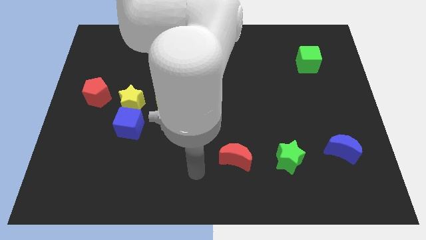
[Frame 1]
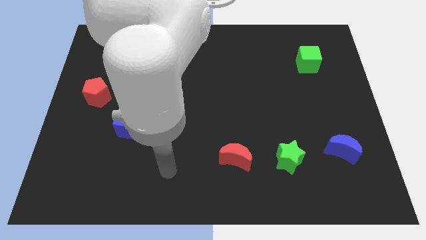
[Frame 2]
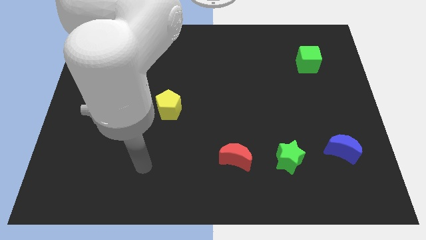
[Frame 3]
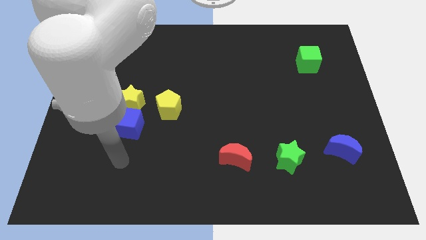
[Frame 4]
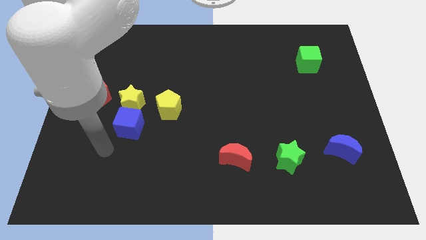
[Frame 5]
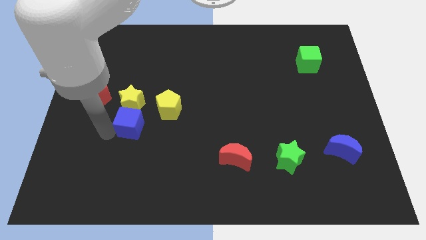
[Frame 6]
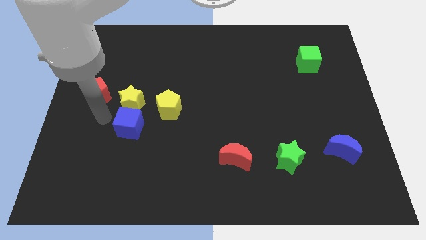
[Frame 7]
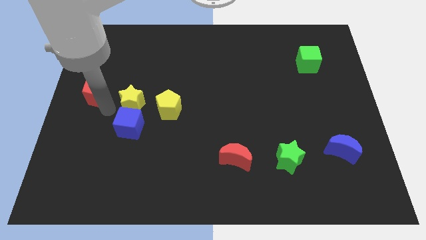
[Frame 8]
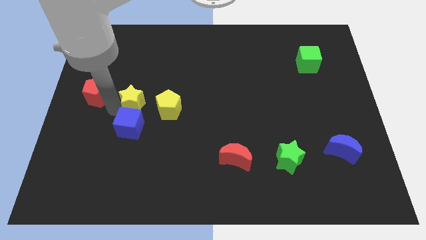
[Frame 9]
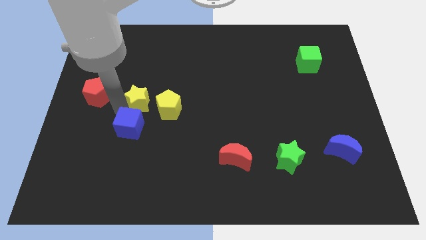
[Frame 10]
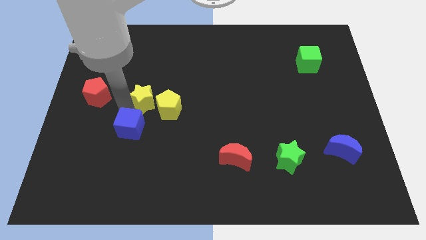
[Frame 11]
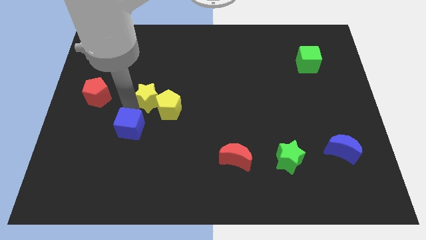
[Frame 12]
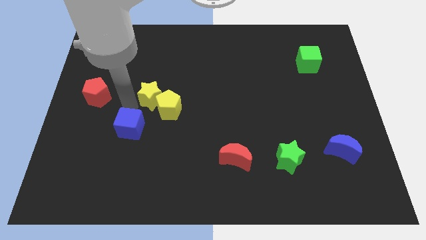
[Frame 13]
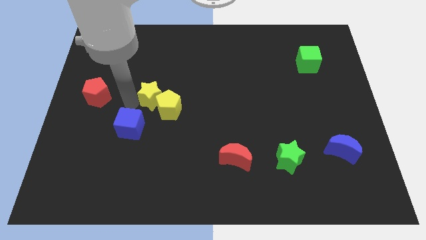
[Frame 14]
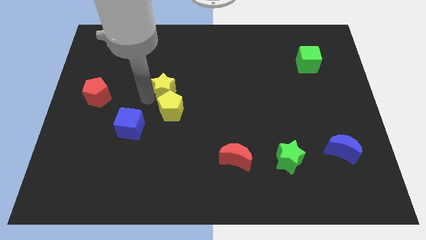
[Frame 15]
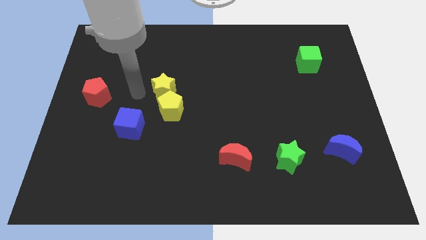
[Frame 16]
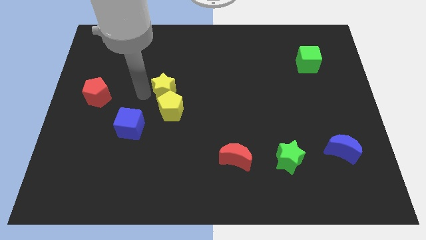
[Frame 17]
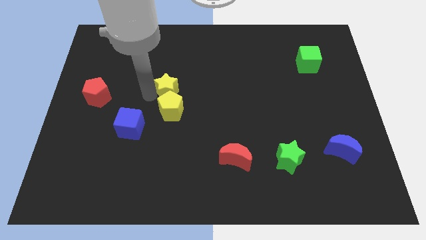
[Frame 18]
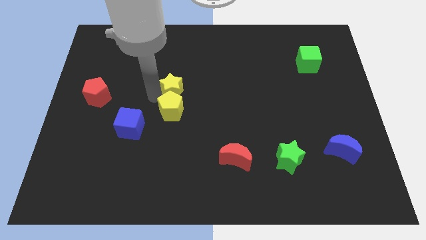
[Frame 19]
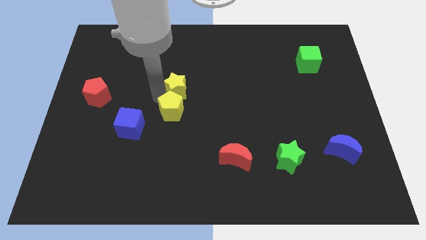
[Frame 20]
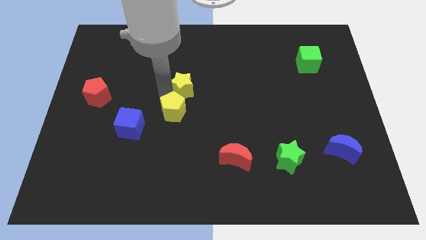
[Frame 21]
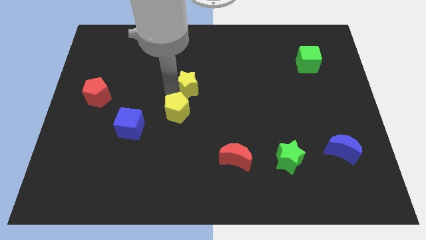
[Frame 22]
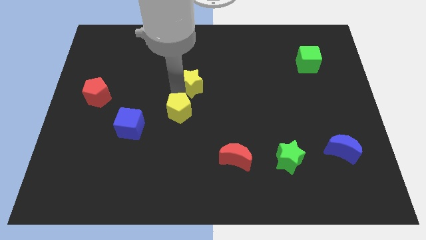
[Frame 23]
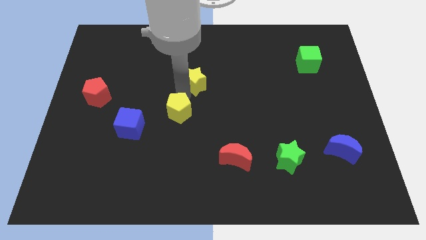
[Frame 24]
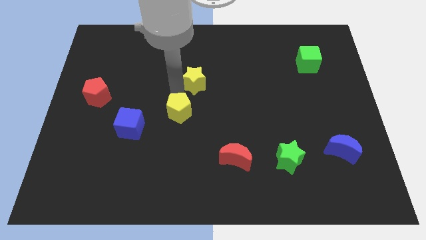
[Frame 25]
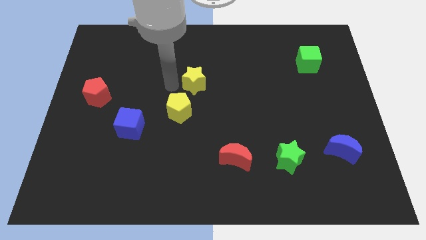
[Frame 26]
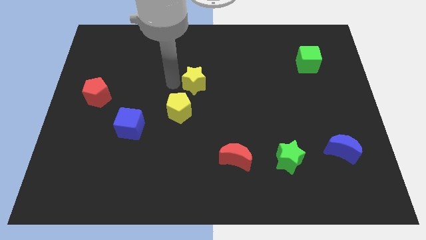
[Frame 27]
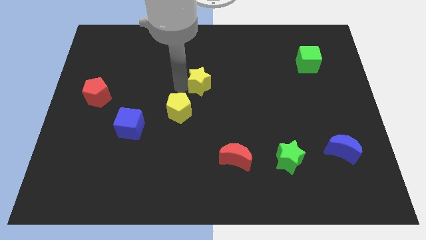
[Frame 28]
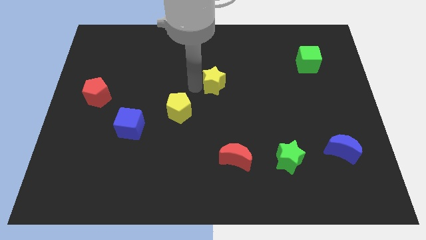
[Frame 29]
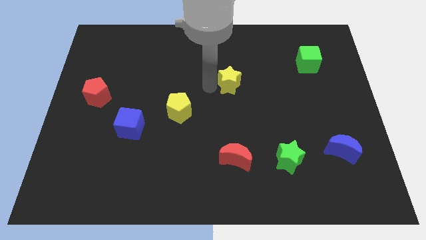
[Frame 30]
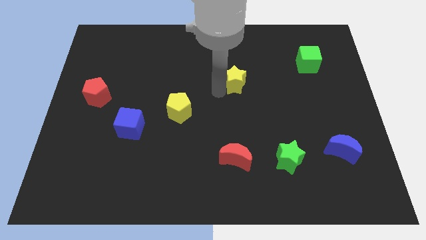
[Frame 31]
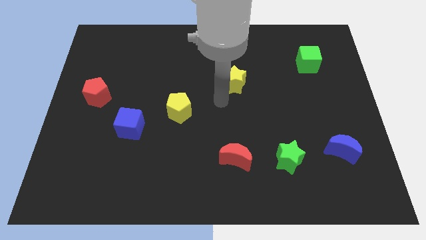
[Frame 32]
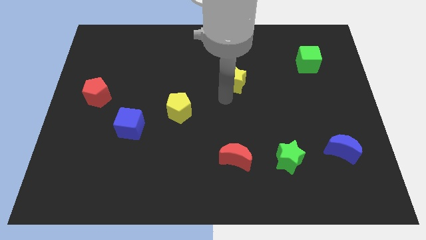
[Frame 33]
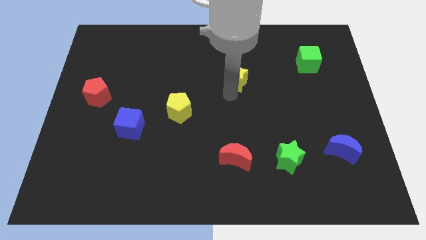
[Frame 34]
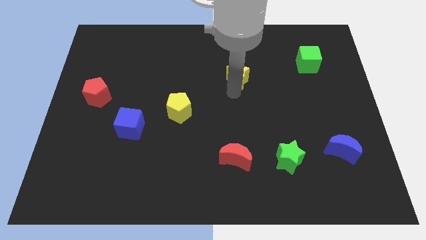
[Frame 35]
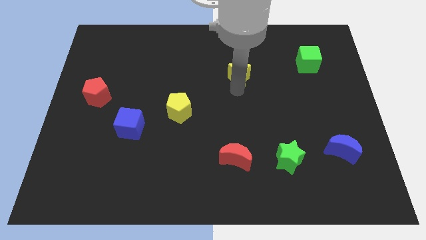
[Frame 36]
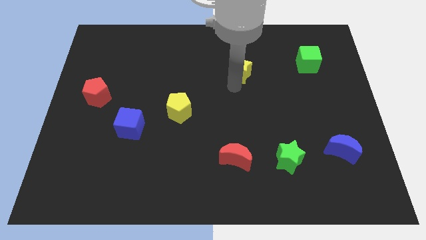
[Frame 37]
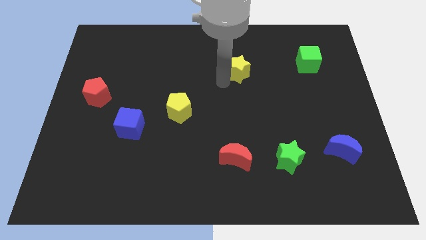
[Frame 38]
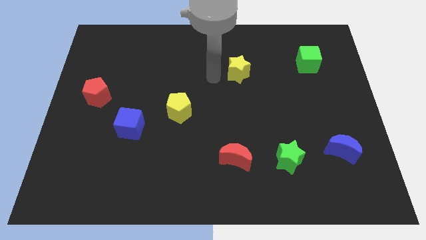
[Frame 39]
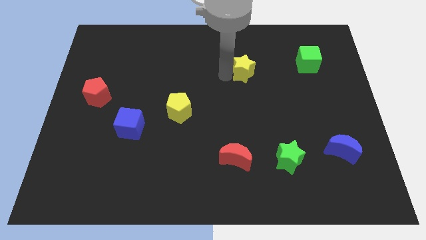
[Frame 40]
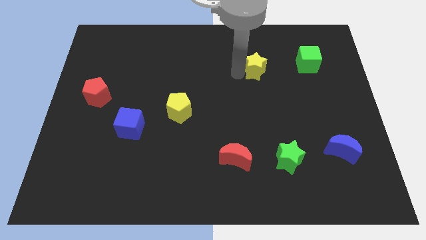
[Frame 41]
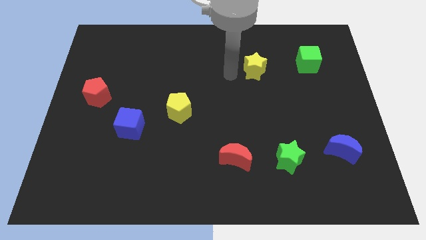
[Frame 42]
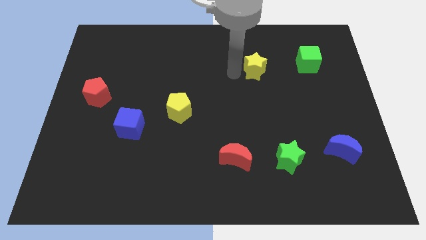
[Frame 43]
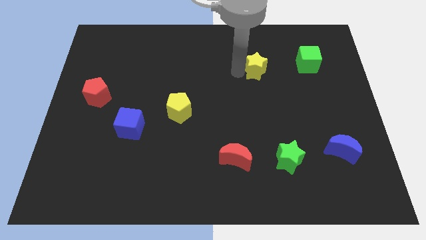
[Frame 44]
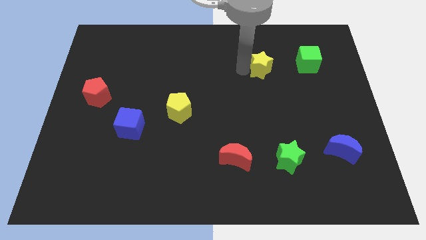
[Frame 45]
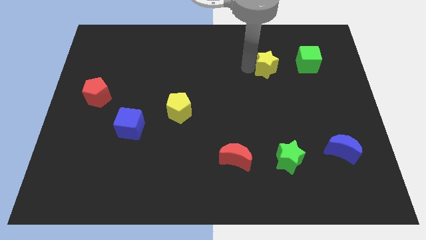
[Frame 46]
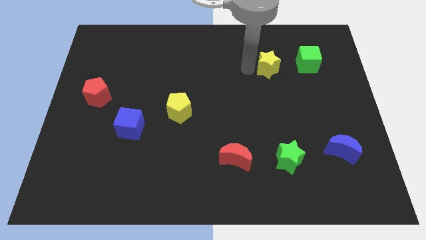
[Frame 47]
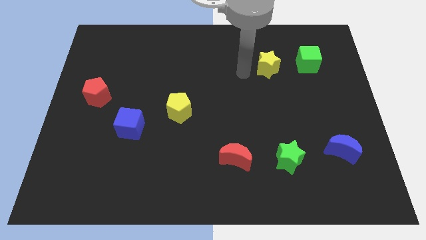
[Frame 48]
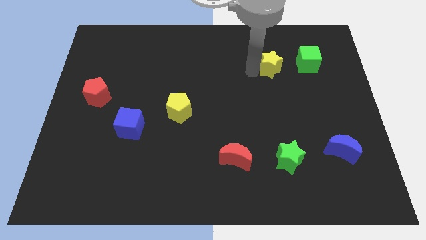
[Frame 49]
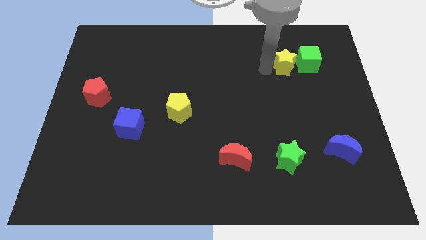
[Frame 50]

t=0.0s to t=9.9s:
move the yellow star to the green cube

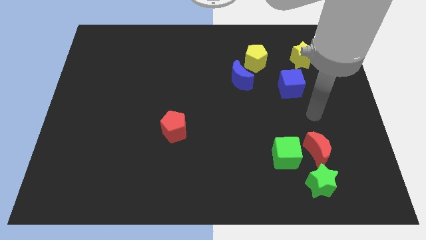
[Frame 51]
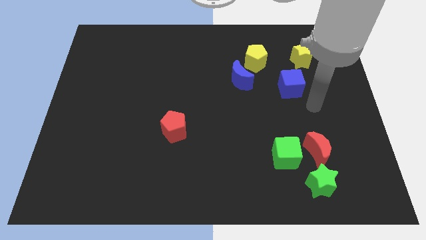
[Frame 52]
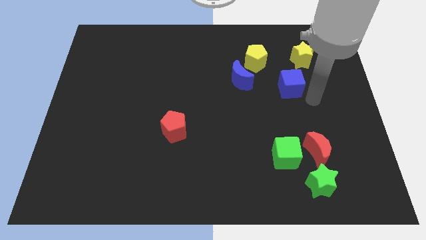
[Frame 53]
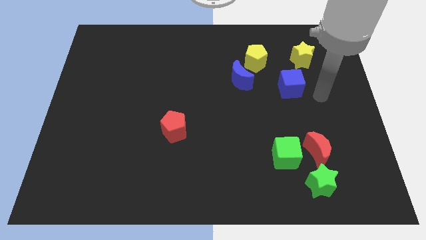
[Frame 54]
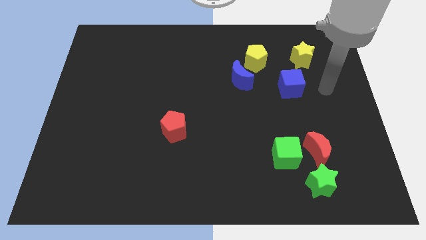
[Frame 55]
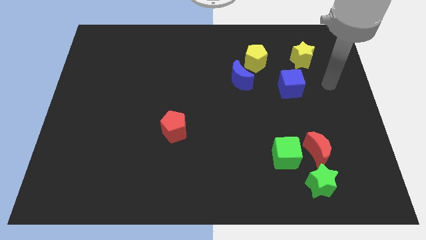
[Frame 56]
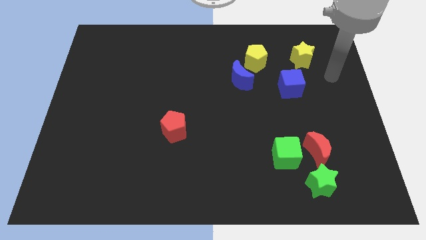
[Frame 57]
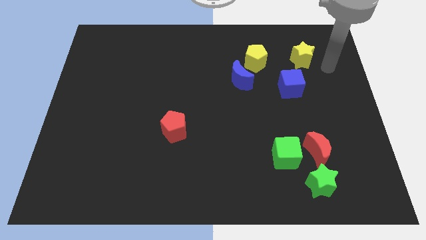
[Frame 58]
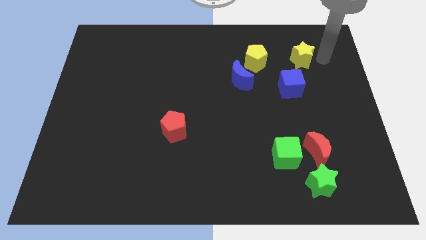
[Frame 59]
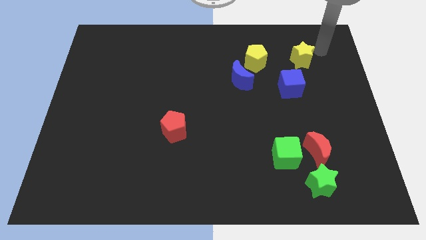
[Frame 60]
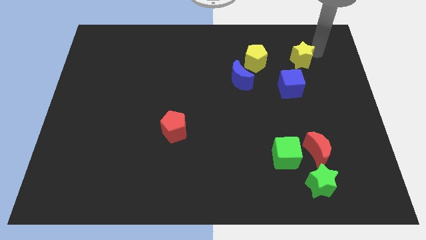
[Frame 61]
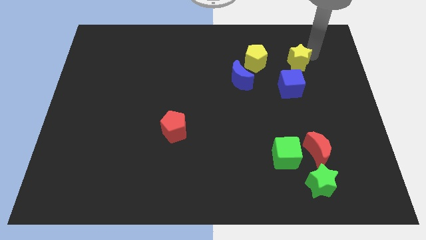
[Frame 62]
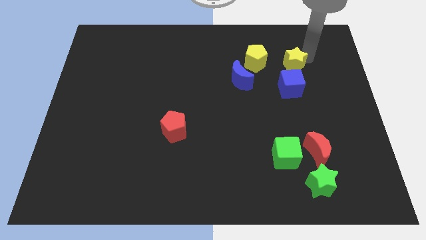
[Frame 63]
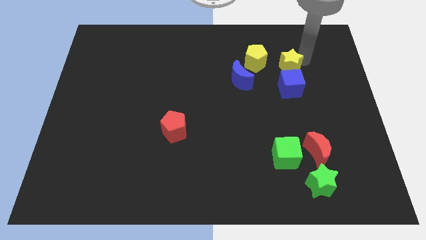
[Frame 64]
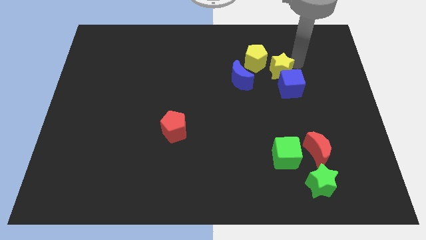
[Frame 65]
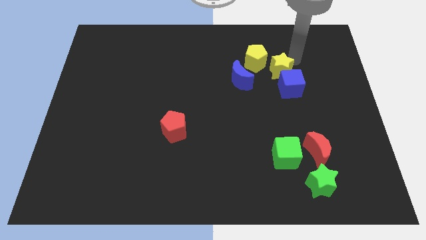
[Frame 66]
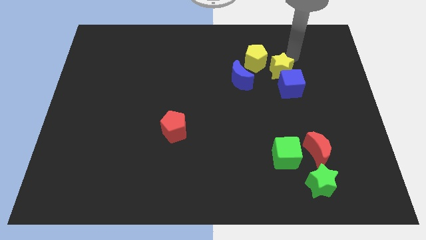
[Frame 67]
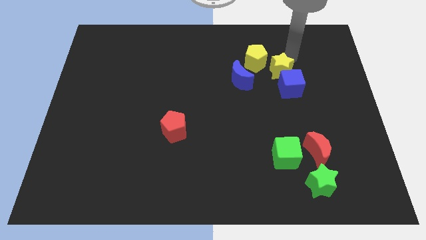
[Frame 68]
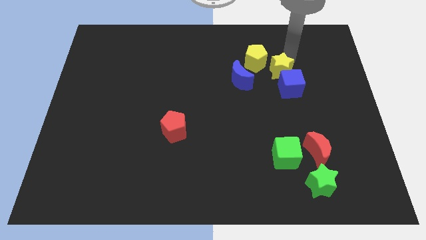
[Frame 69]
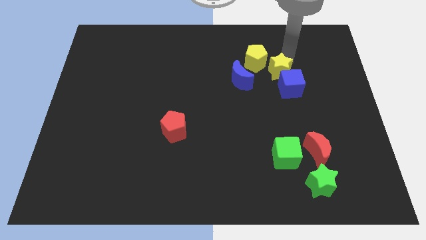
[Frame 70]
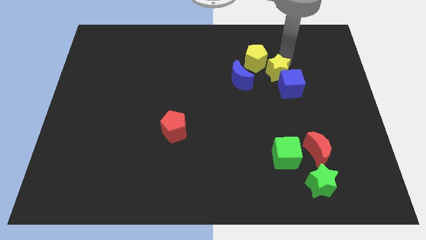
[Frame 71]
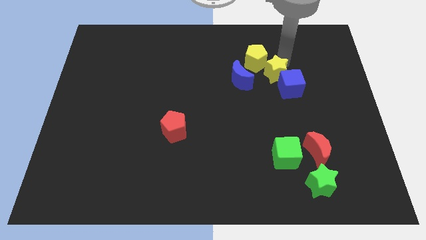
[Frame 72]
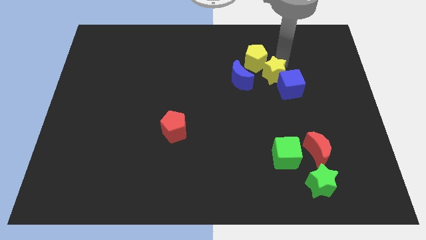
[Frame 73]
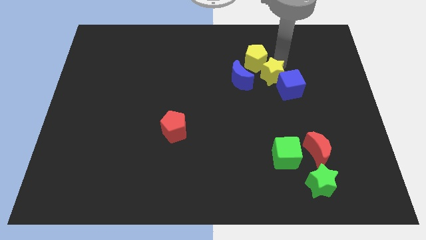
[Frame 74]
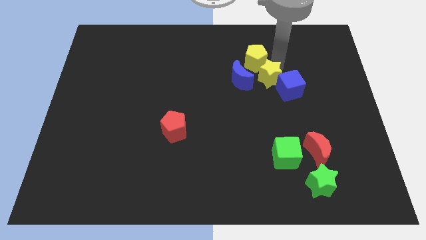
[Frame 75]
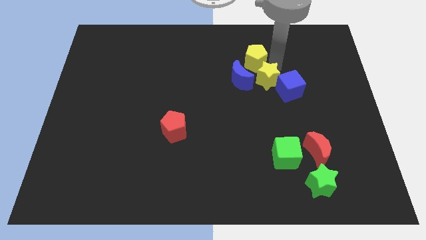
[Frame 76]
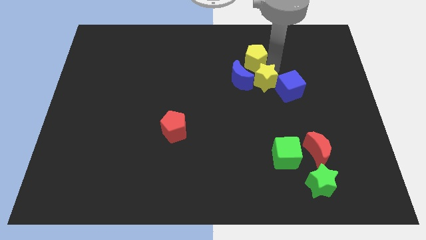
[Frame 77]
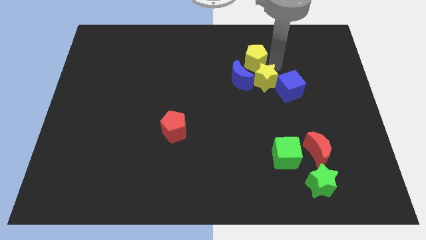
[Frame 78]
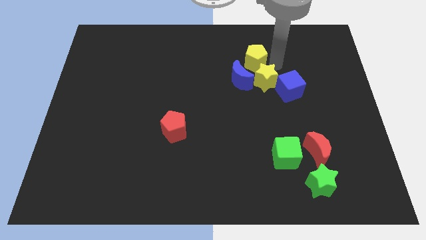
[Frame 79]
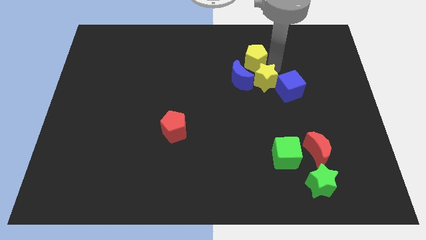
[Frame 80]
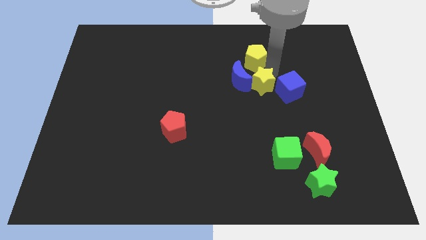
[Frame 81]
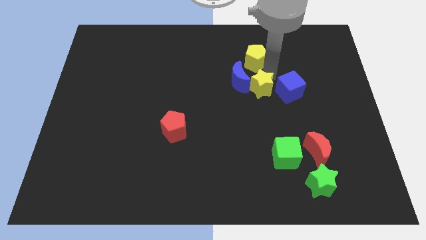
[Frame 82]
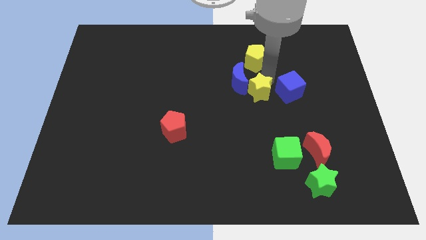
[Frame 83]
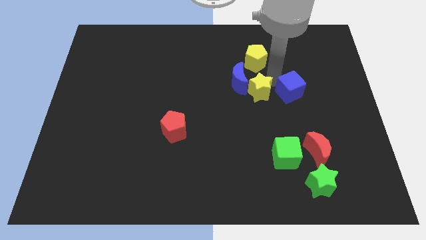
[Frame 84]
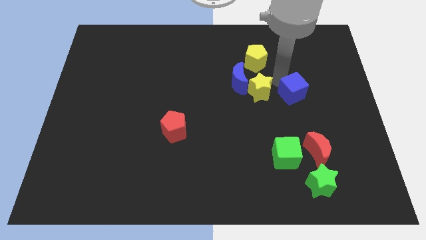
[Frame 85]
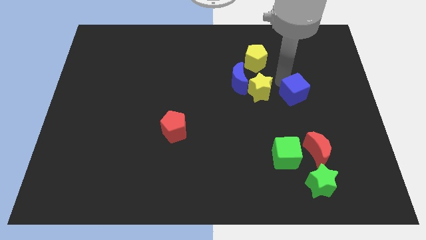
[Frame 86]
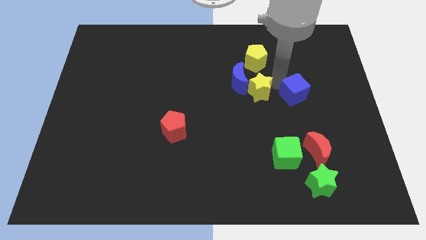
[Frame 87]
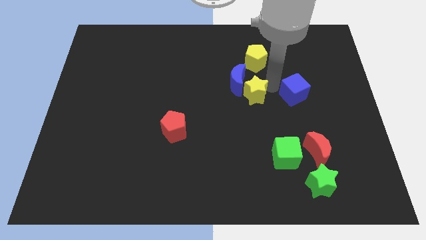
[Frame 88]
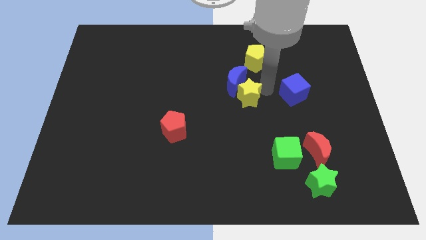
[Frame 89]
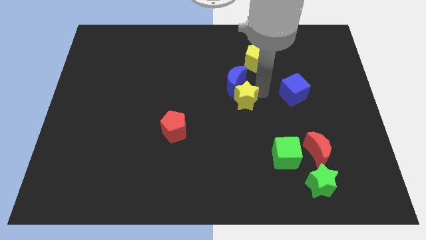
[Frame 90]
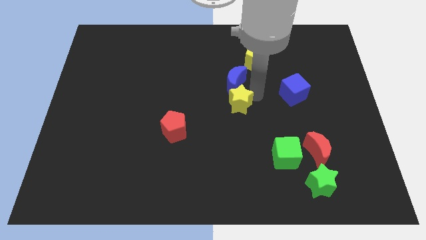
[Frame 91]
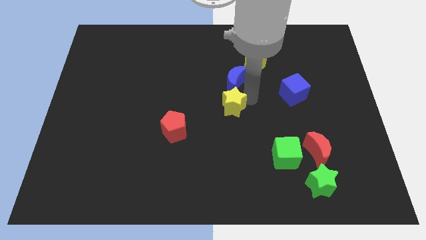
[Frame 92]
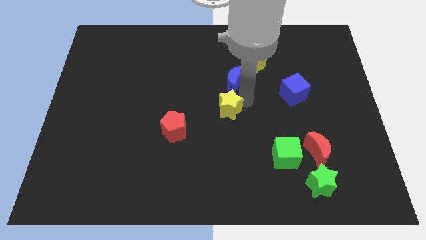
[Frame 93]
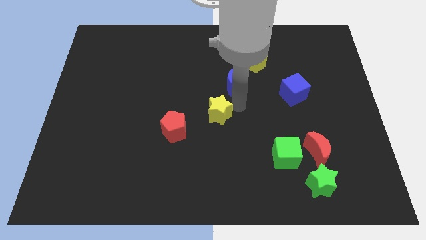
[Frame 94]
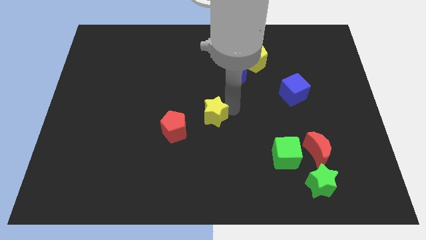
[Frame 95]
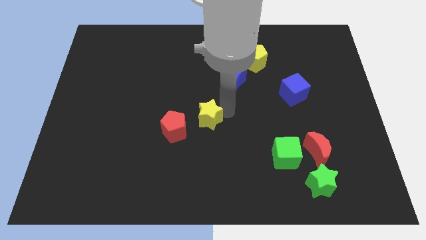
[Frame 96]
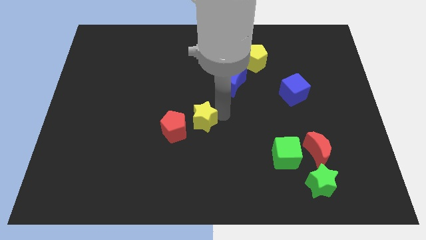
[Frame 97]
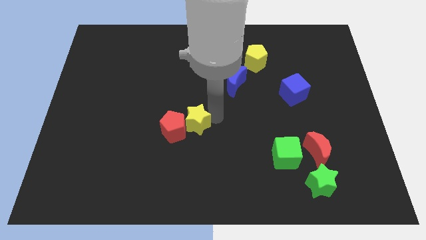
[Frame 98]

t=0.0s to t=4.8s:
push the yellow star towards the red pentagon
